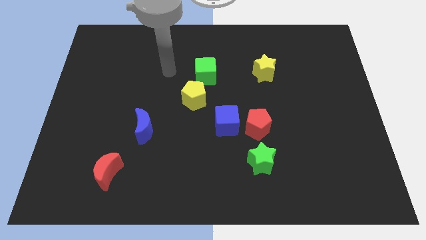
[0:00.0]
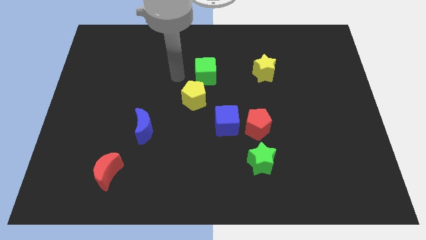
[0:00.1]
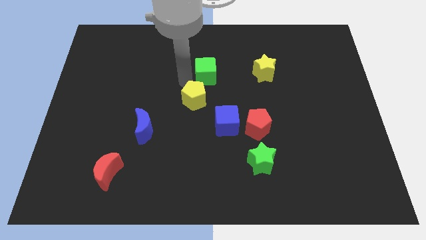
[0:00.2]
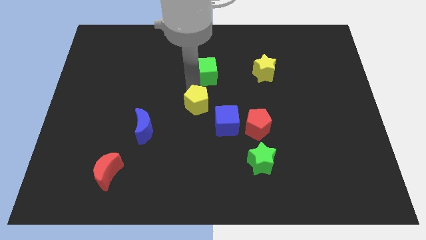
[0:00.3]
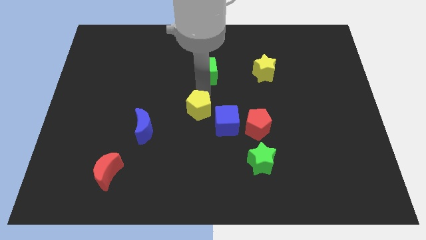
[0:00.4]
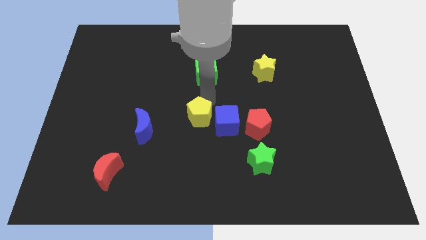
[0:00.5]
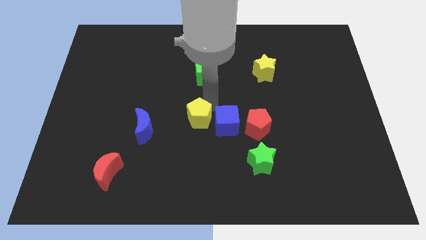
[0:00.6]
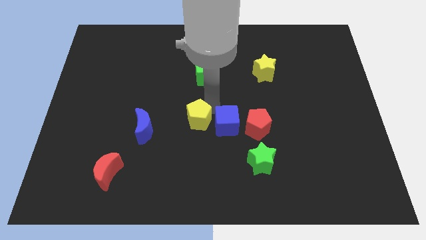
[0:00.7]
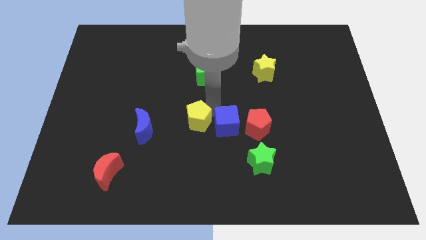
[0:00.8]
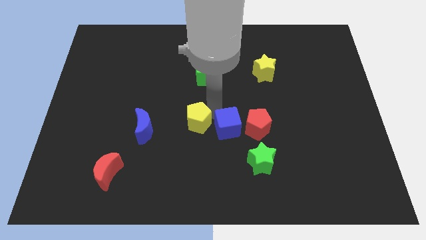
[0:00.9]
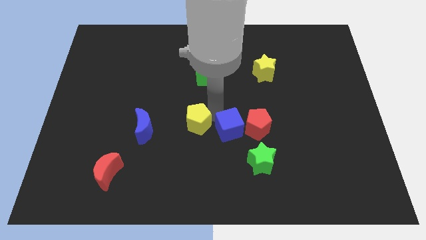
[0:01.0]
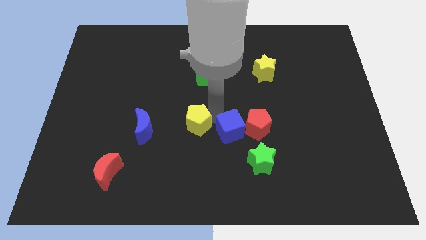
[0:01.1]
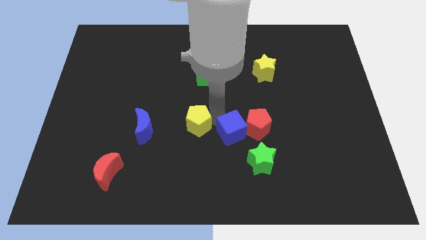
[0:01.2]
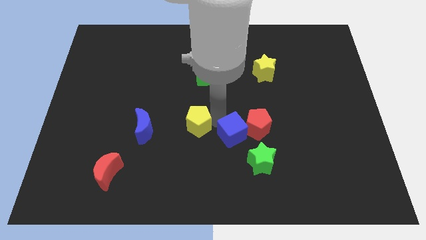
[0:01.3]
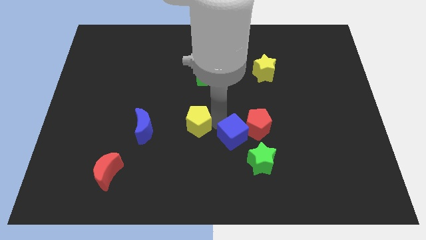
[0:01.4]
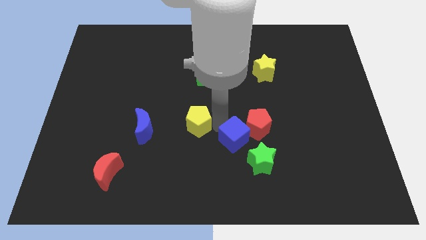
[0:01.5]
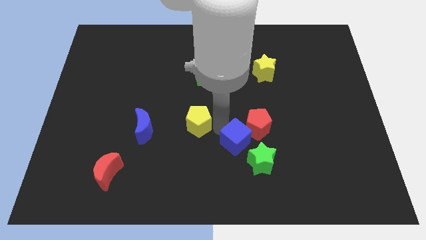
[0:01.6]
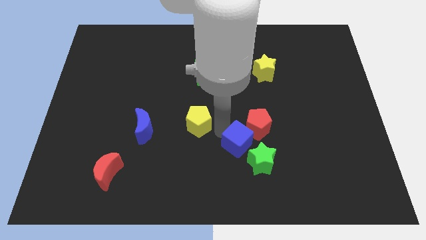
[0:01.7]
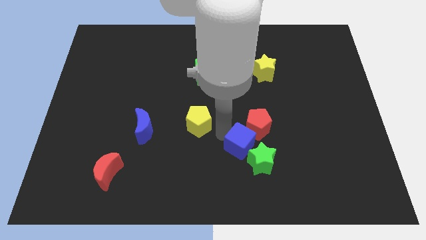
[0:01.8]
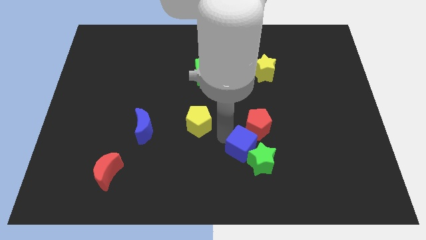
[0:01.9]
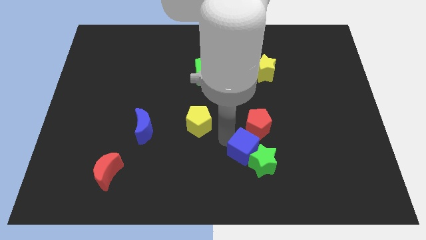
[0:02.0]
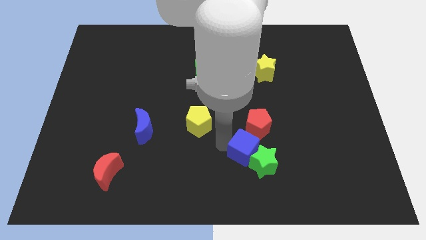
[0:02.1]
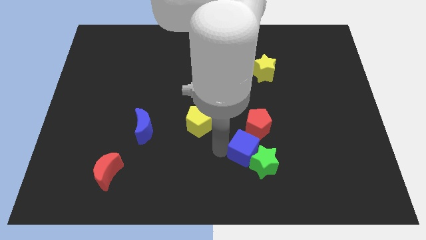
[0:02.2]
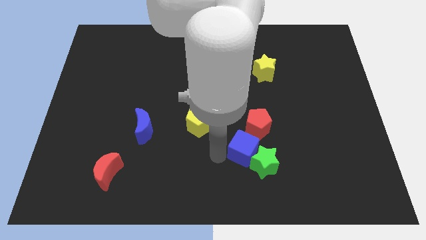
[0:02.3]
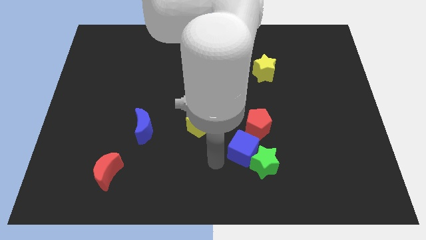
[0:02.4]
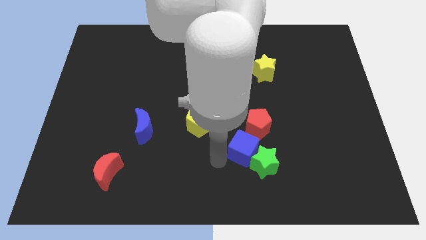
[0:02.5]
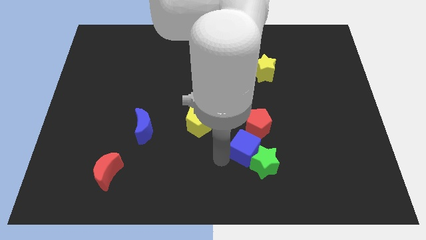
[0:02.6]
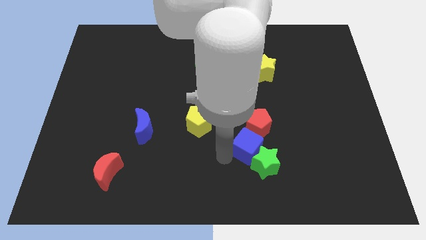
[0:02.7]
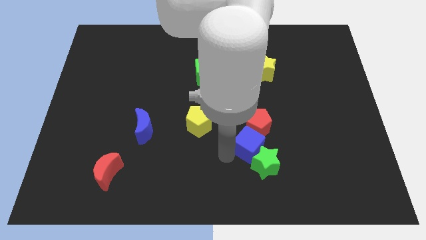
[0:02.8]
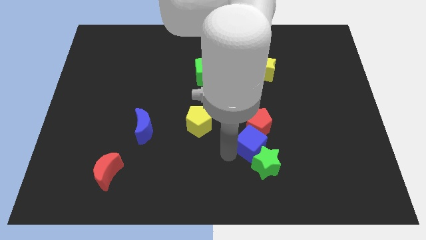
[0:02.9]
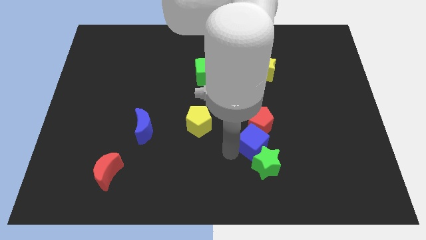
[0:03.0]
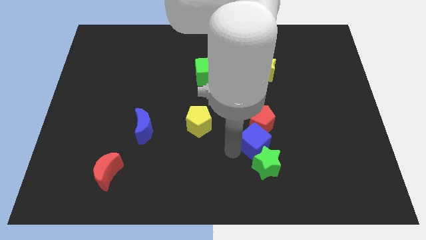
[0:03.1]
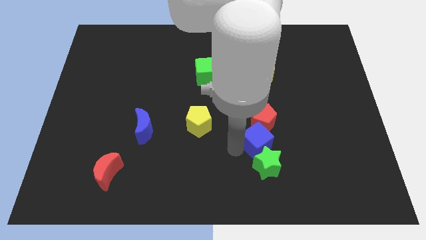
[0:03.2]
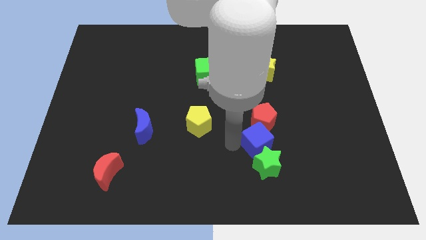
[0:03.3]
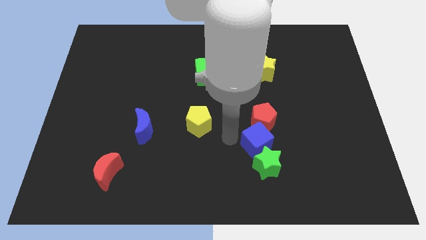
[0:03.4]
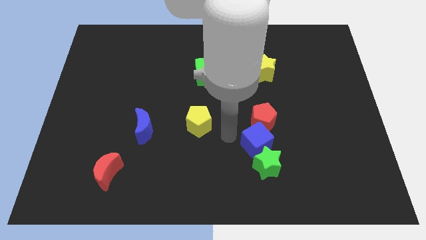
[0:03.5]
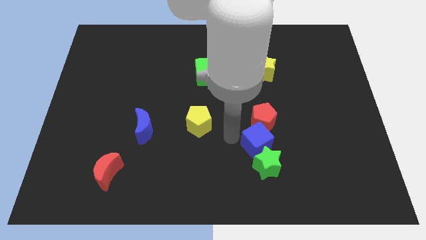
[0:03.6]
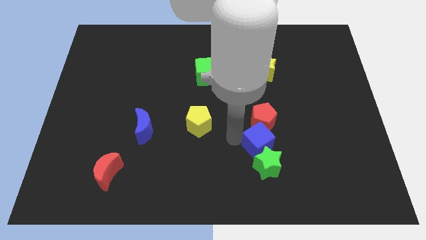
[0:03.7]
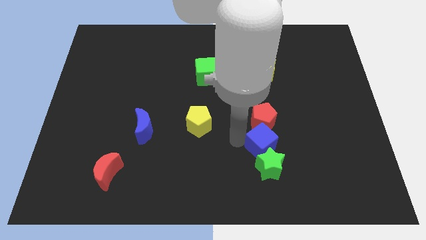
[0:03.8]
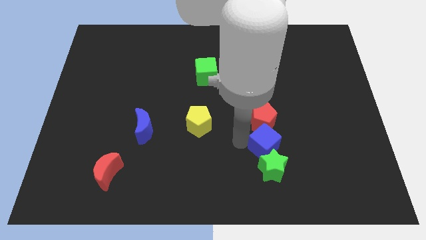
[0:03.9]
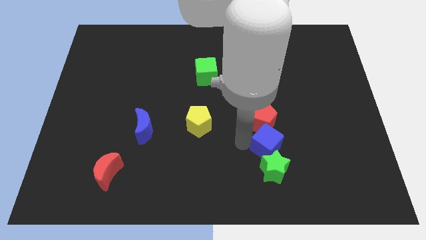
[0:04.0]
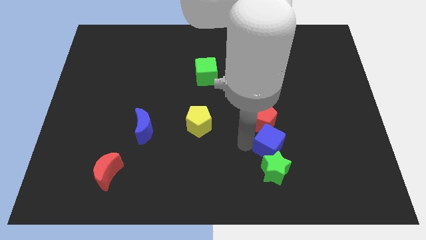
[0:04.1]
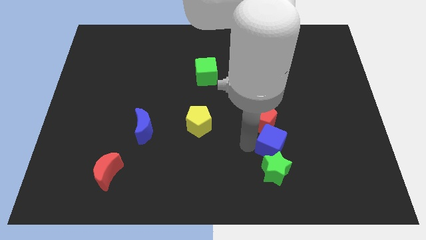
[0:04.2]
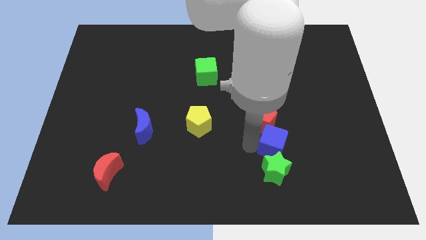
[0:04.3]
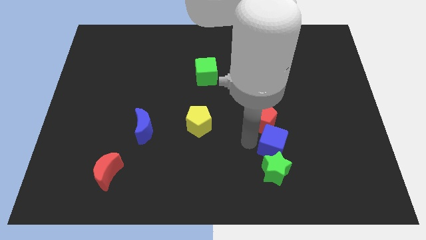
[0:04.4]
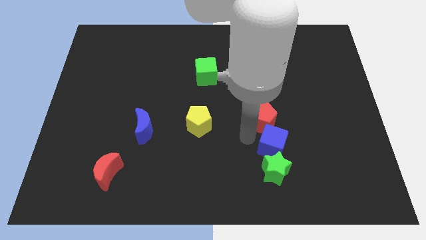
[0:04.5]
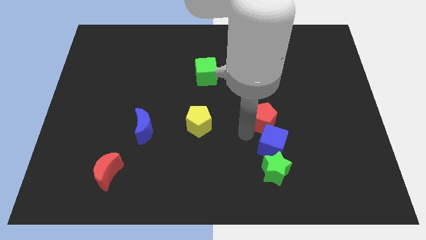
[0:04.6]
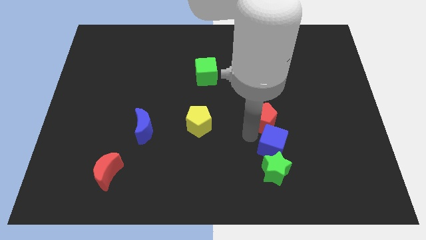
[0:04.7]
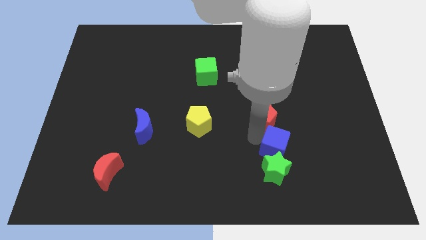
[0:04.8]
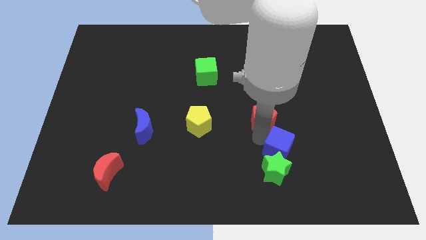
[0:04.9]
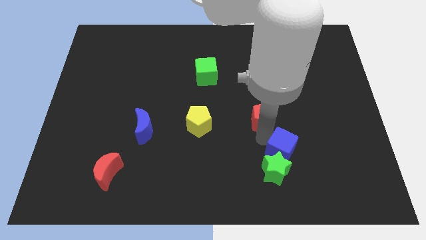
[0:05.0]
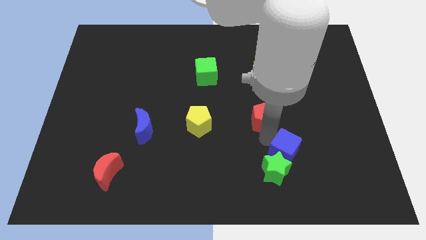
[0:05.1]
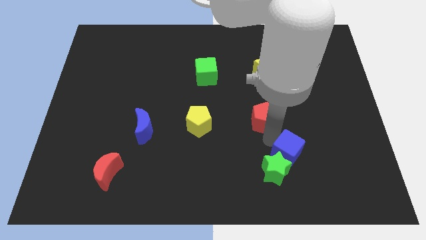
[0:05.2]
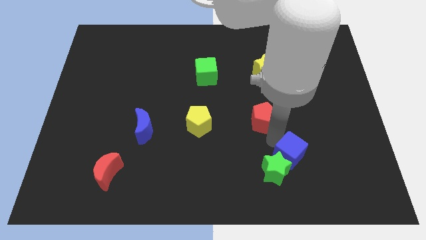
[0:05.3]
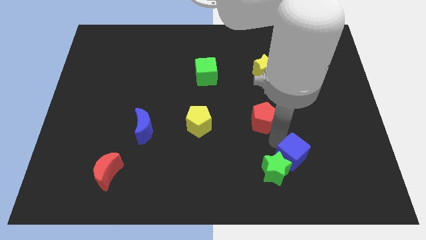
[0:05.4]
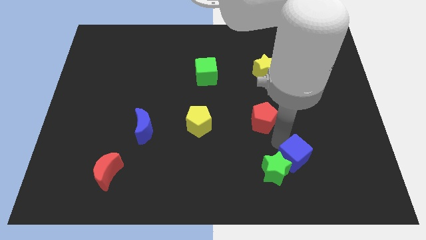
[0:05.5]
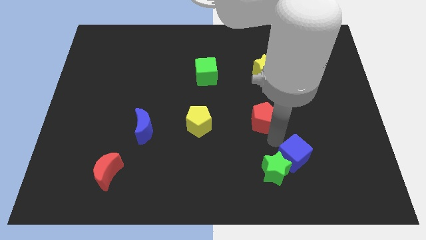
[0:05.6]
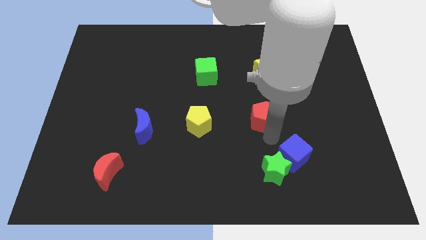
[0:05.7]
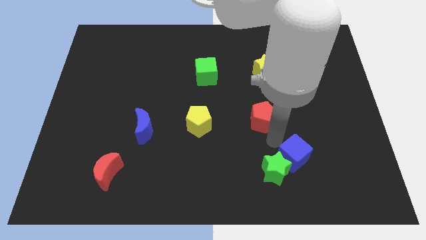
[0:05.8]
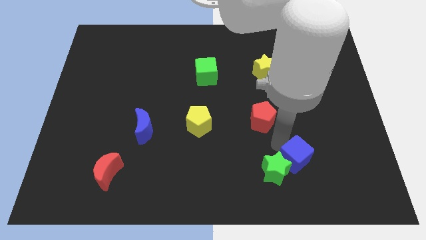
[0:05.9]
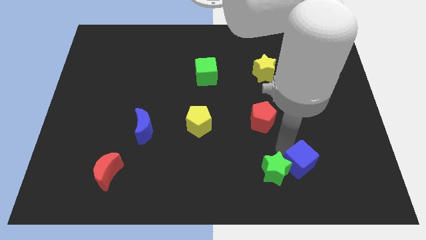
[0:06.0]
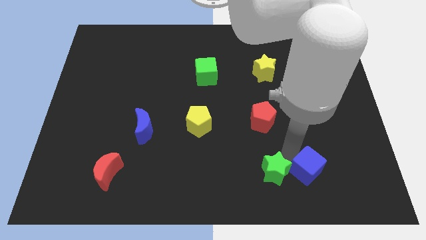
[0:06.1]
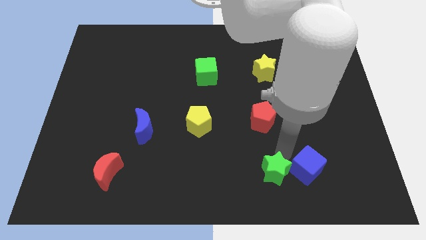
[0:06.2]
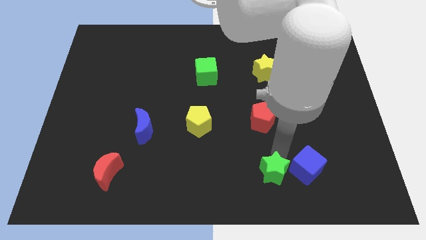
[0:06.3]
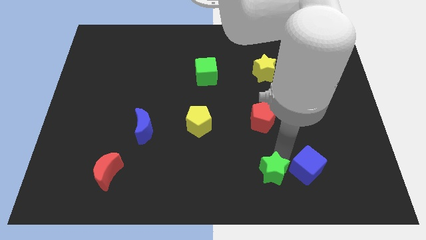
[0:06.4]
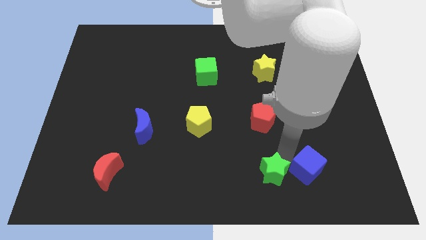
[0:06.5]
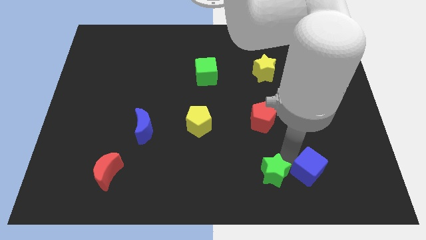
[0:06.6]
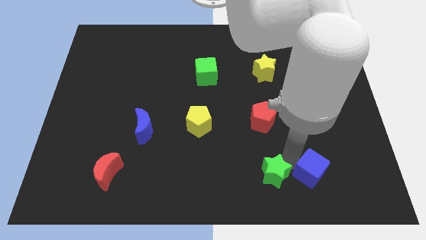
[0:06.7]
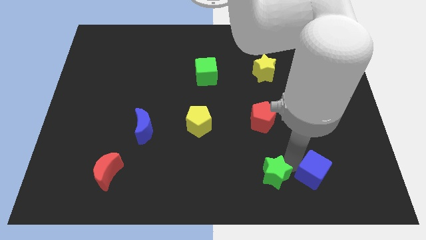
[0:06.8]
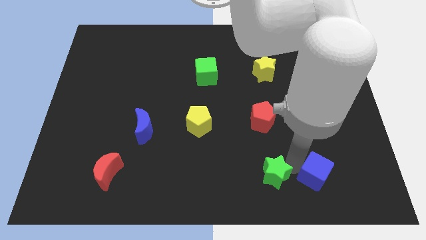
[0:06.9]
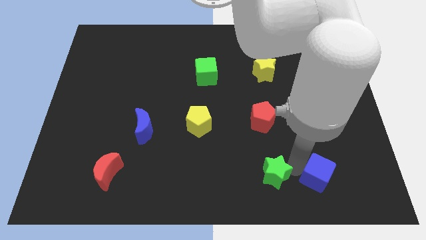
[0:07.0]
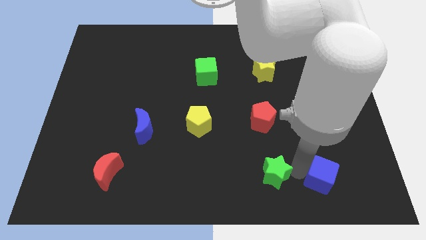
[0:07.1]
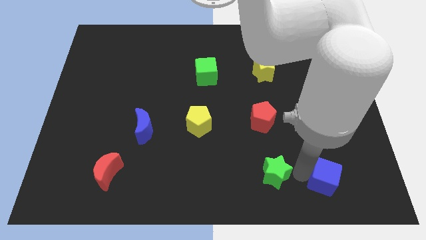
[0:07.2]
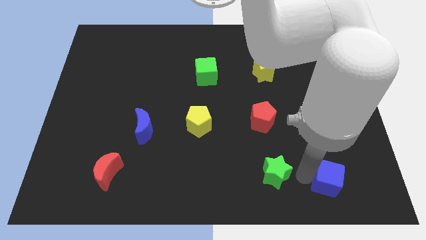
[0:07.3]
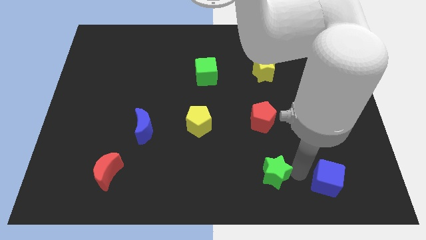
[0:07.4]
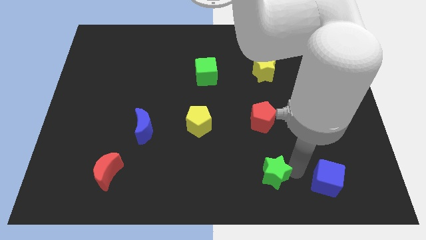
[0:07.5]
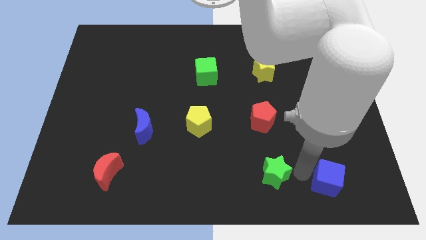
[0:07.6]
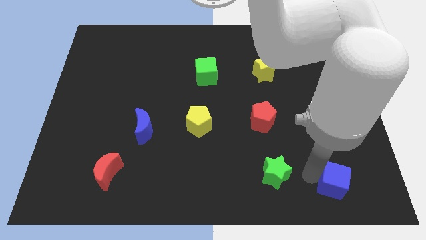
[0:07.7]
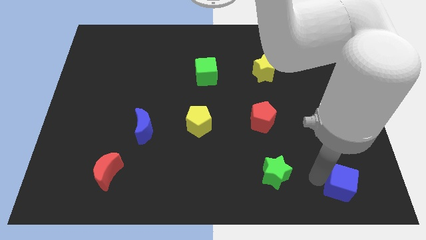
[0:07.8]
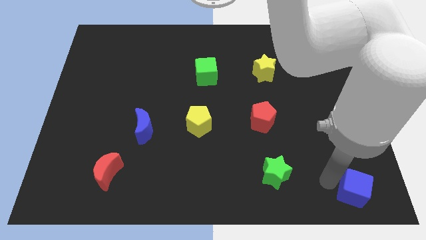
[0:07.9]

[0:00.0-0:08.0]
push the blue cube to the lower right corner
